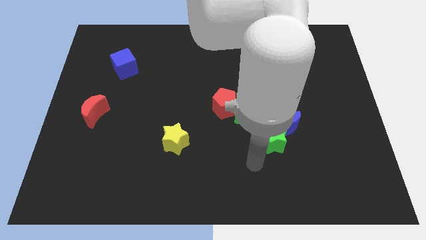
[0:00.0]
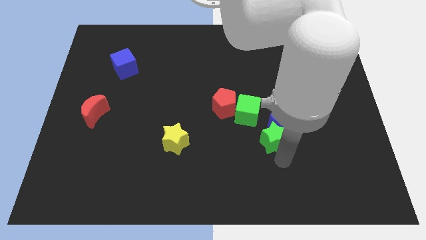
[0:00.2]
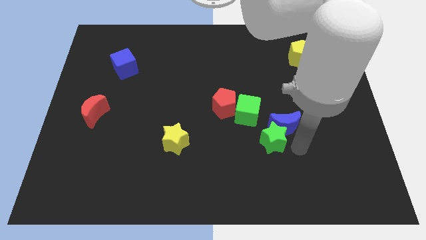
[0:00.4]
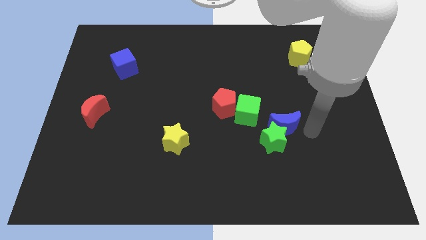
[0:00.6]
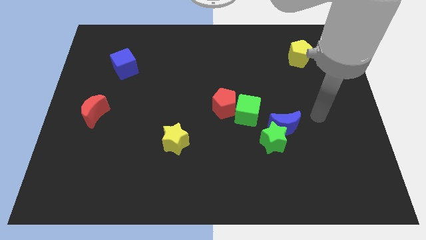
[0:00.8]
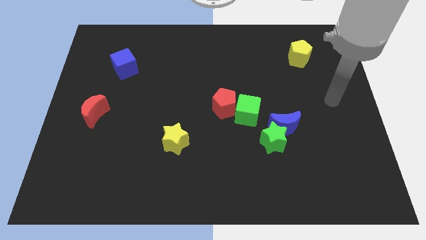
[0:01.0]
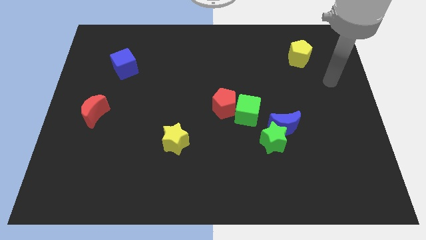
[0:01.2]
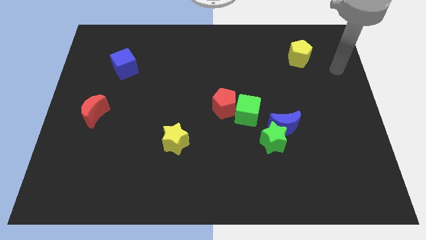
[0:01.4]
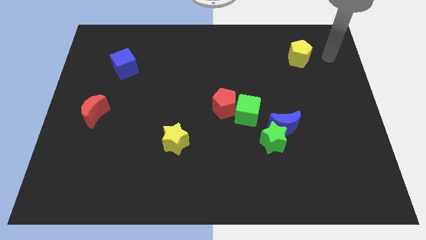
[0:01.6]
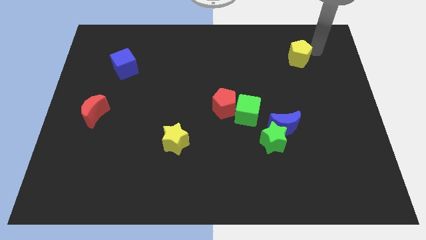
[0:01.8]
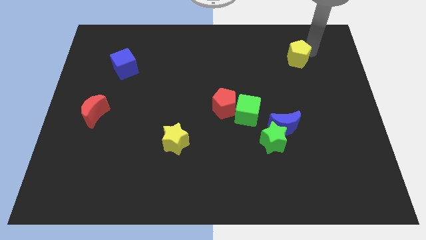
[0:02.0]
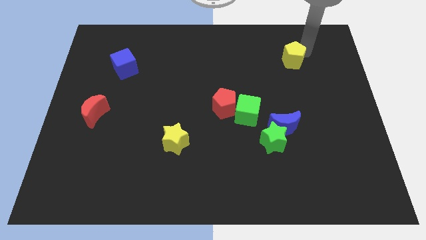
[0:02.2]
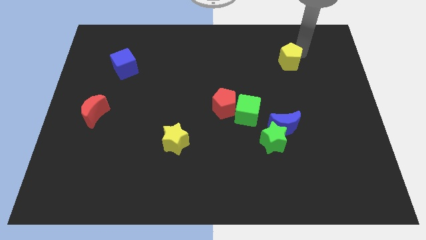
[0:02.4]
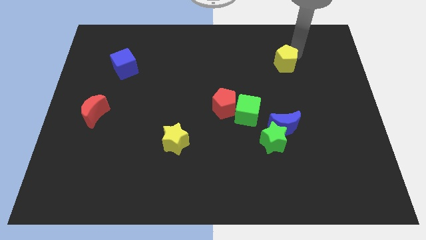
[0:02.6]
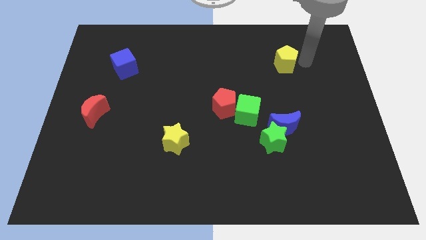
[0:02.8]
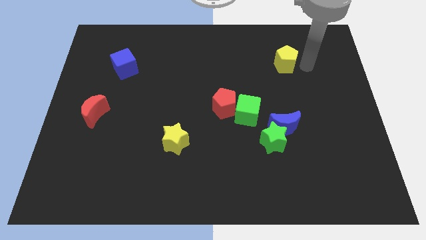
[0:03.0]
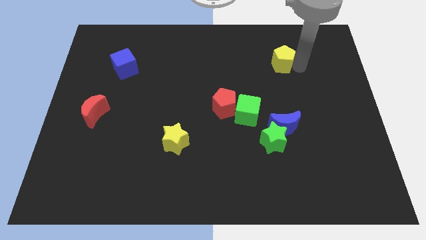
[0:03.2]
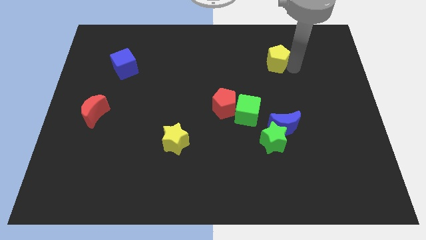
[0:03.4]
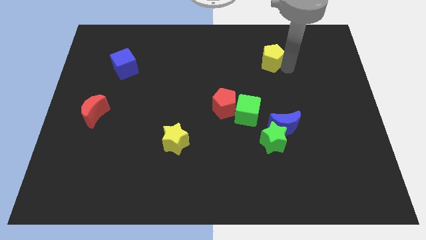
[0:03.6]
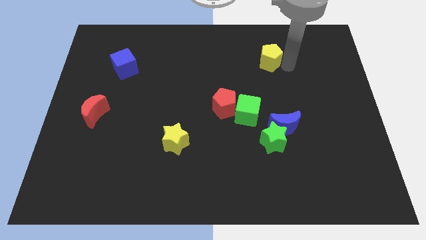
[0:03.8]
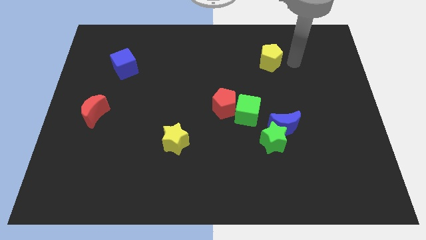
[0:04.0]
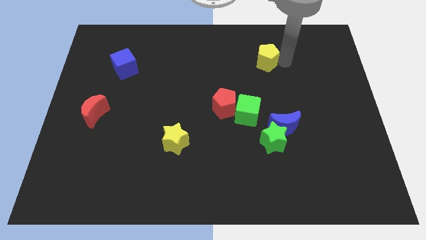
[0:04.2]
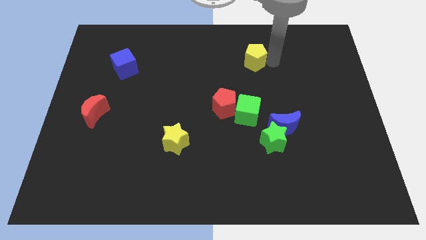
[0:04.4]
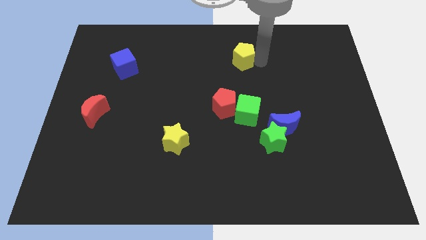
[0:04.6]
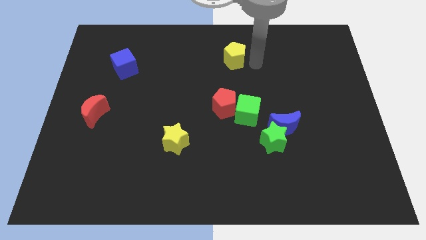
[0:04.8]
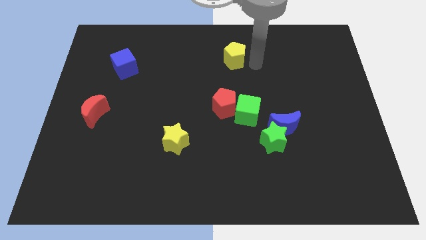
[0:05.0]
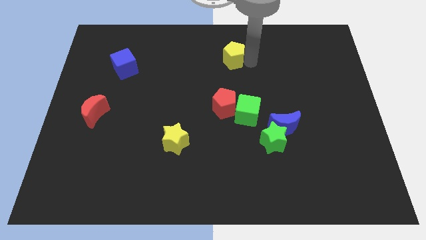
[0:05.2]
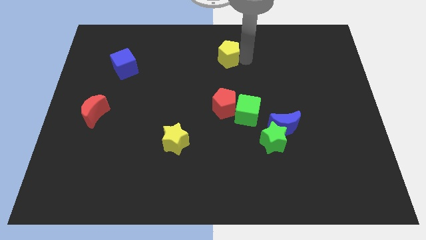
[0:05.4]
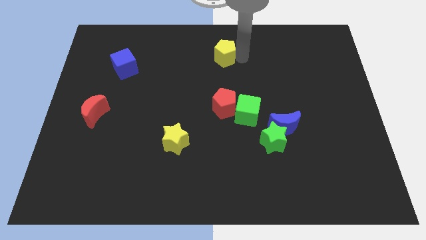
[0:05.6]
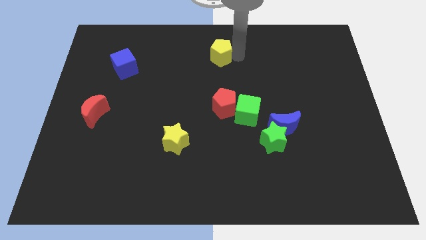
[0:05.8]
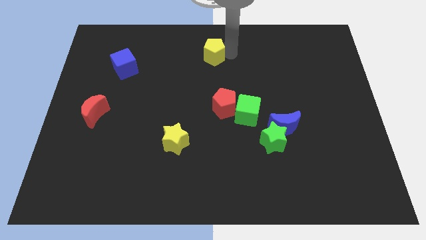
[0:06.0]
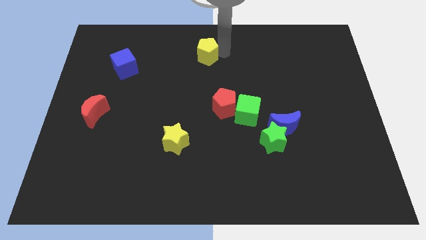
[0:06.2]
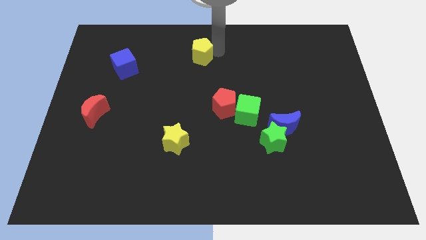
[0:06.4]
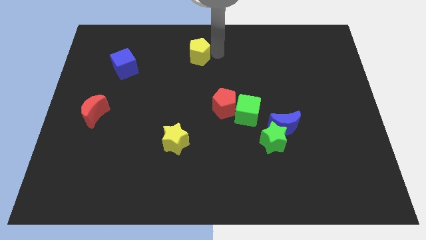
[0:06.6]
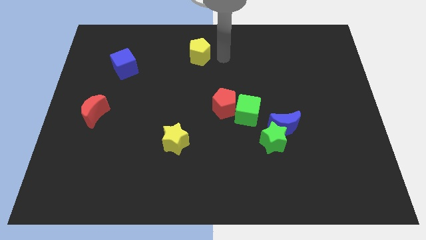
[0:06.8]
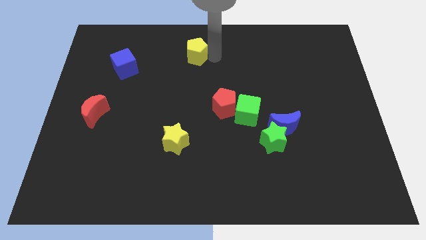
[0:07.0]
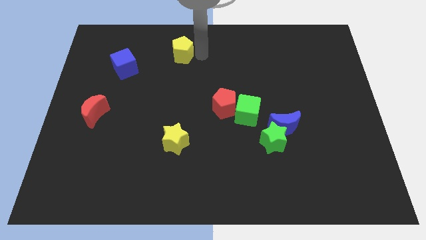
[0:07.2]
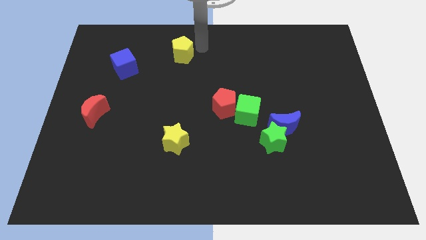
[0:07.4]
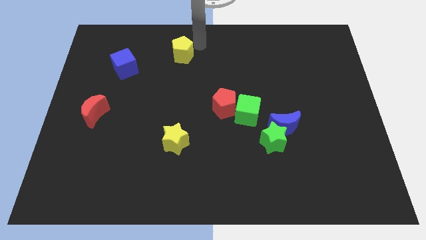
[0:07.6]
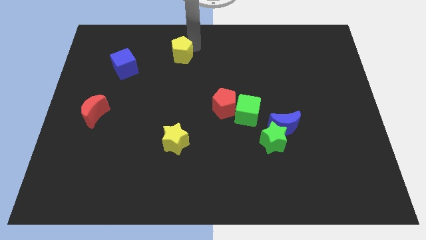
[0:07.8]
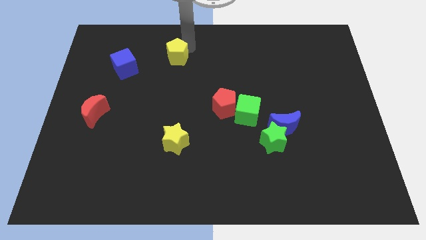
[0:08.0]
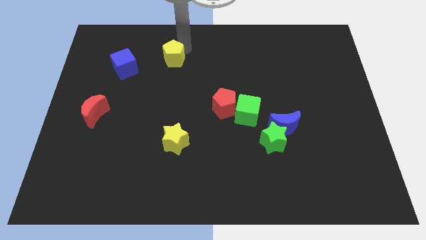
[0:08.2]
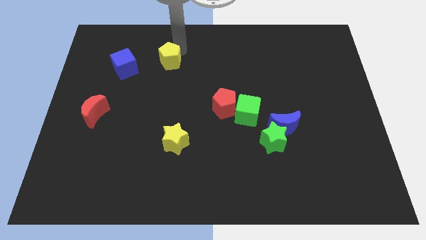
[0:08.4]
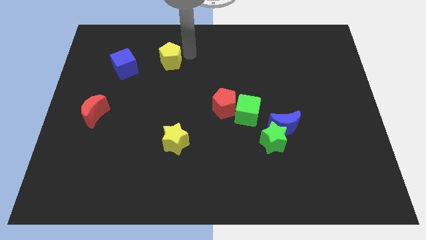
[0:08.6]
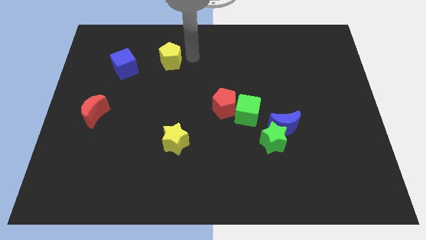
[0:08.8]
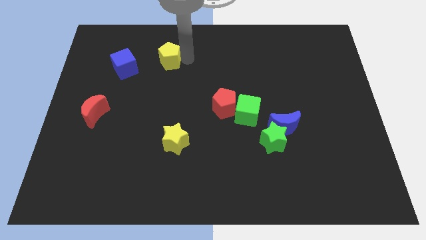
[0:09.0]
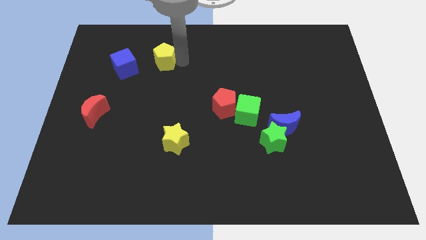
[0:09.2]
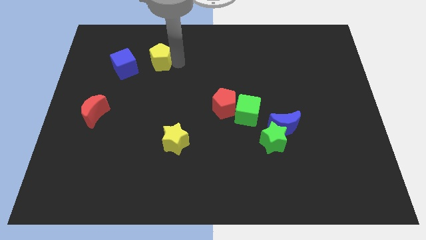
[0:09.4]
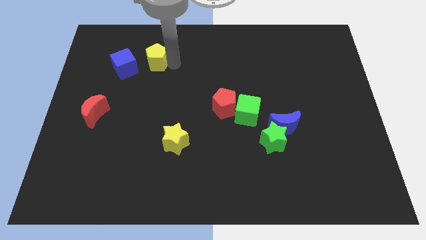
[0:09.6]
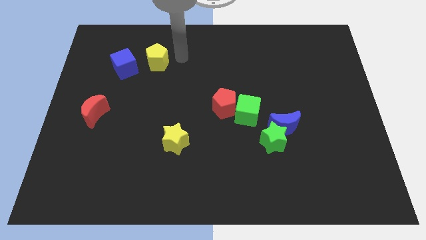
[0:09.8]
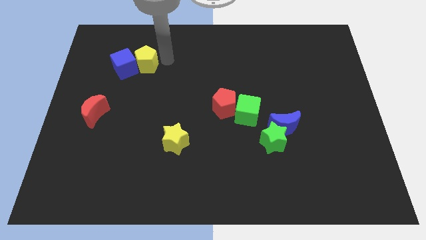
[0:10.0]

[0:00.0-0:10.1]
move the yellow pentagon close to the blue cube

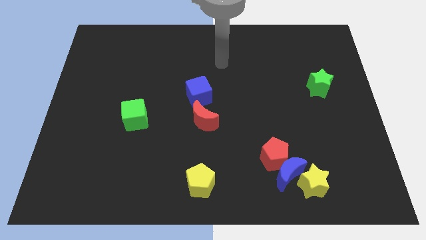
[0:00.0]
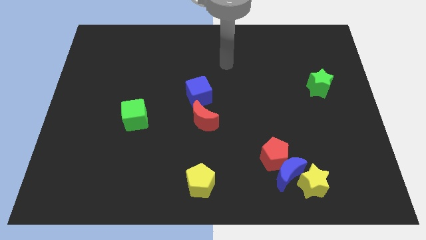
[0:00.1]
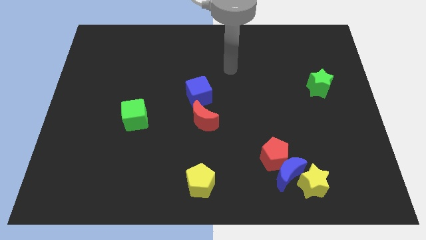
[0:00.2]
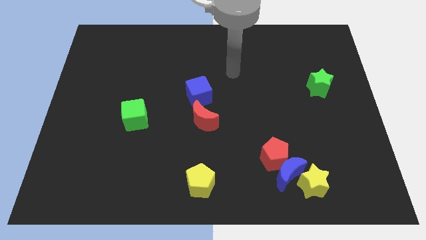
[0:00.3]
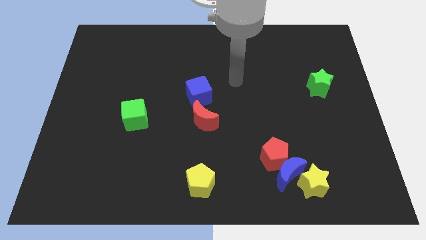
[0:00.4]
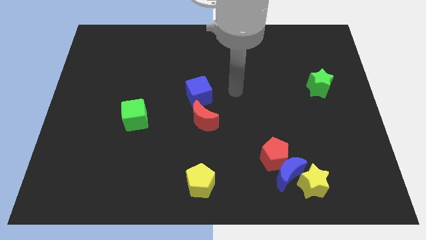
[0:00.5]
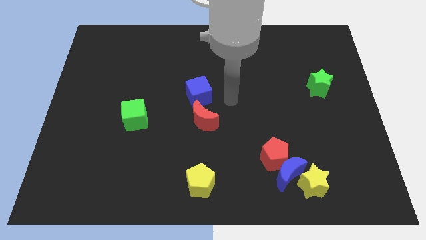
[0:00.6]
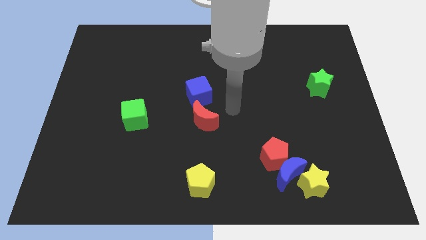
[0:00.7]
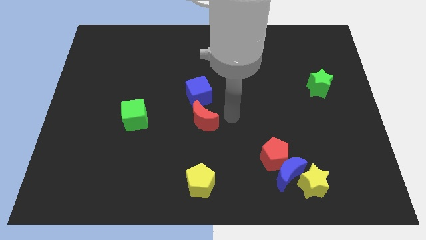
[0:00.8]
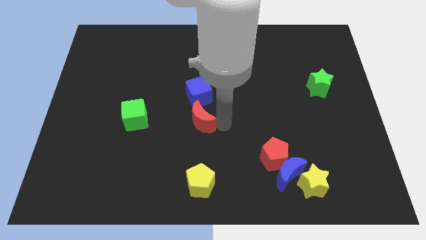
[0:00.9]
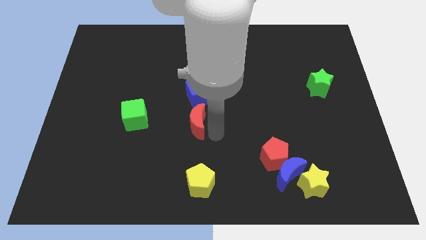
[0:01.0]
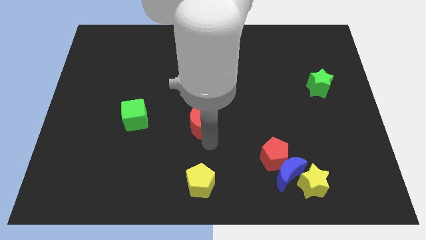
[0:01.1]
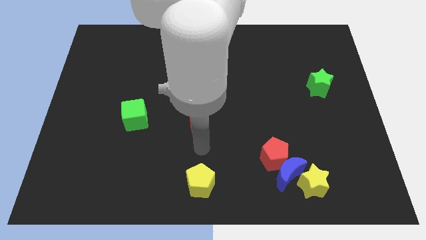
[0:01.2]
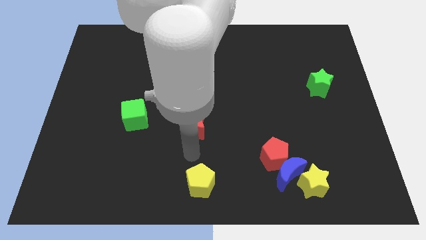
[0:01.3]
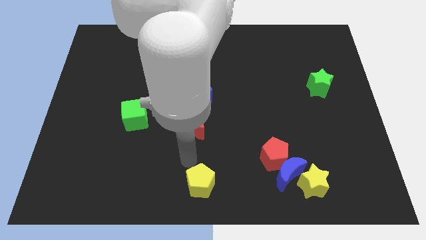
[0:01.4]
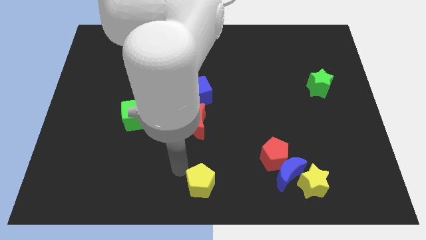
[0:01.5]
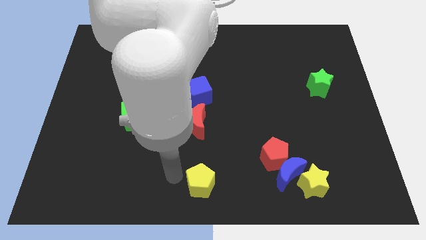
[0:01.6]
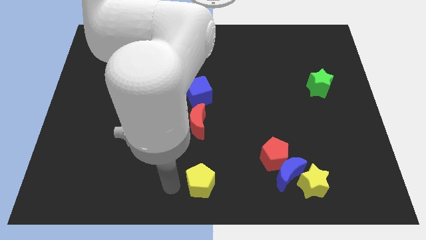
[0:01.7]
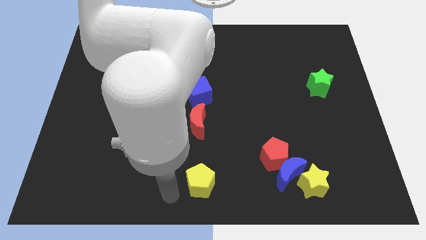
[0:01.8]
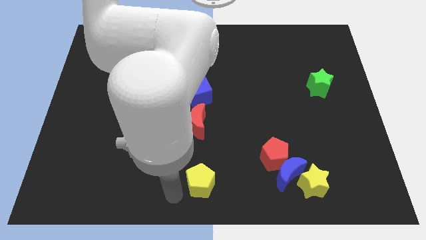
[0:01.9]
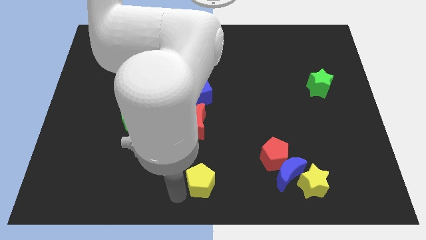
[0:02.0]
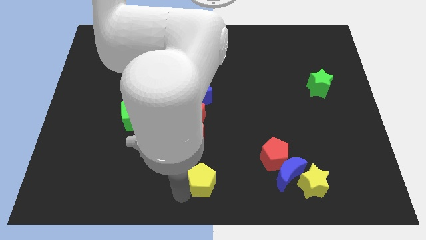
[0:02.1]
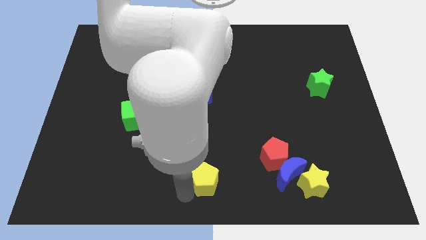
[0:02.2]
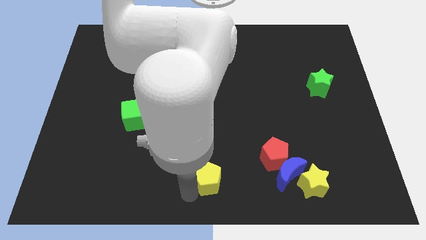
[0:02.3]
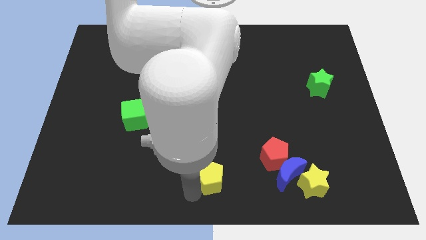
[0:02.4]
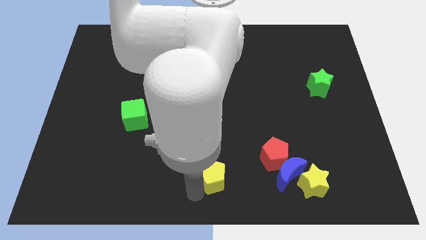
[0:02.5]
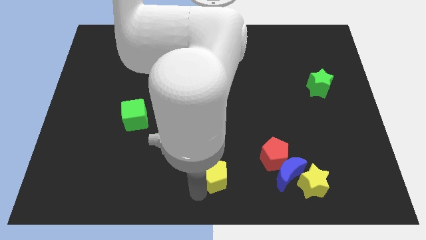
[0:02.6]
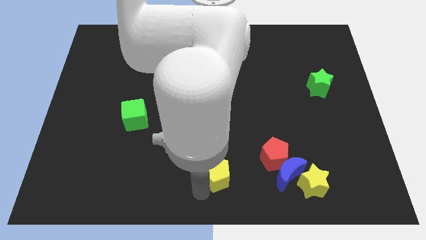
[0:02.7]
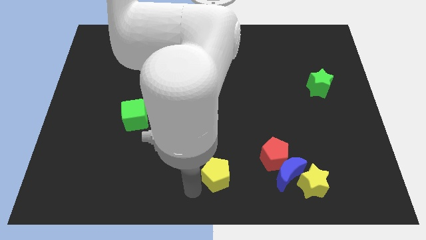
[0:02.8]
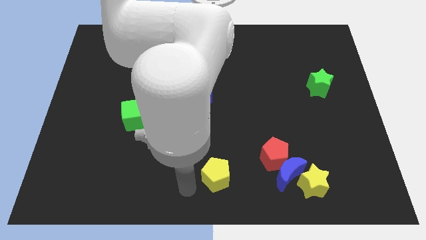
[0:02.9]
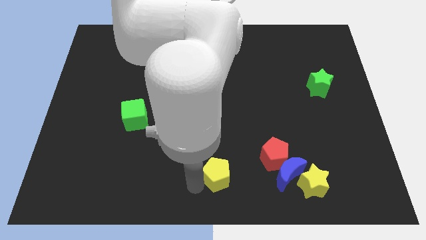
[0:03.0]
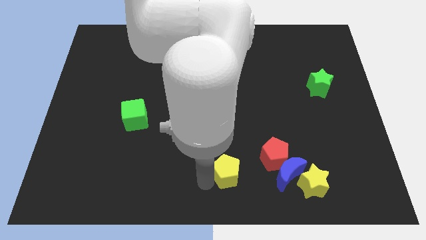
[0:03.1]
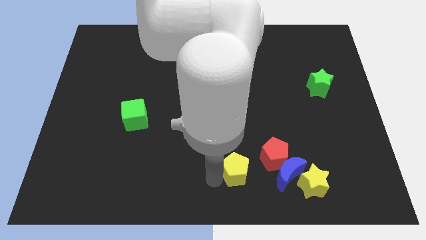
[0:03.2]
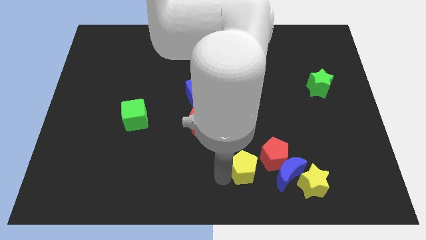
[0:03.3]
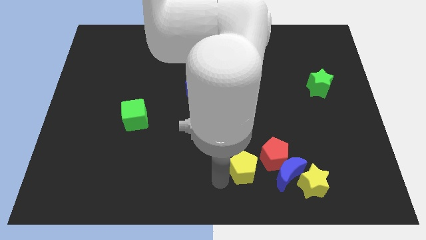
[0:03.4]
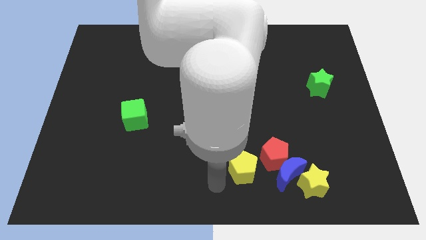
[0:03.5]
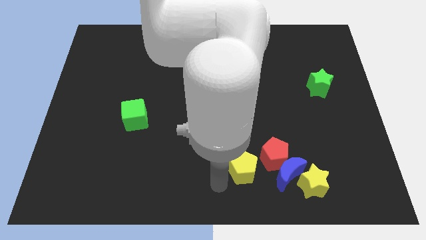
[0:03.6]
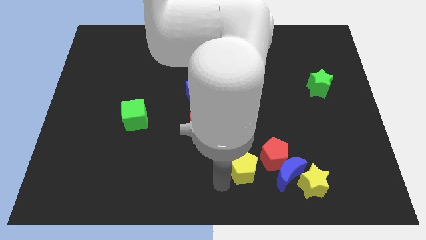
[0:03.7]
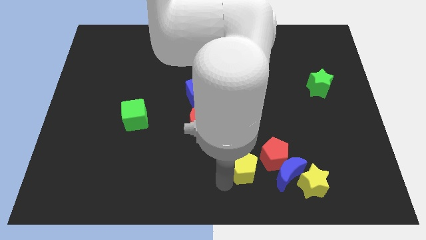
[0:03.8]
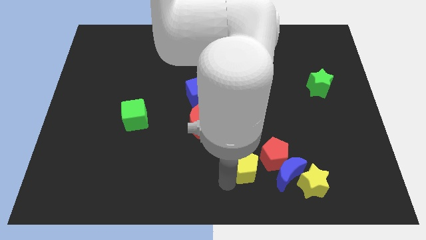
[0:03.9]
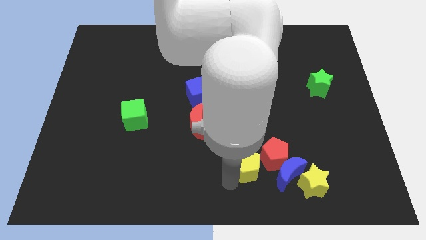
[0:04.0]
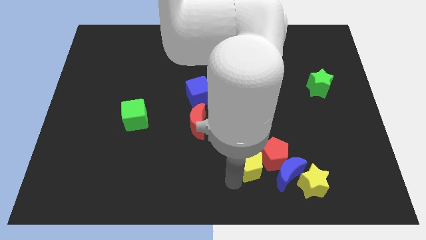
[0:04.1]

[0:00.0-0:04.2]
move the yellow pentagon next to the red pentagon
